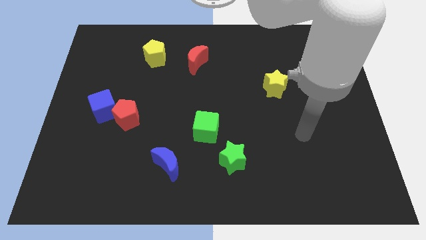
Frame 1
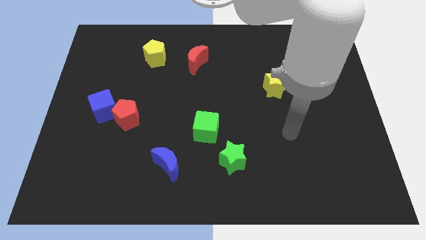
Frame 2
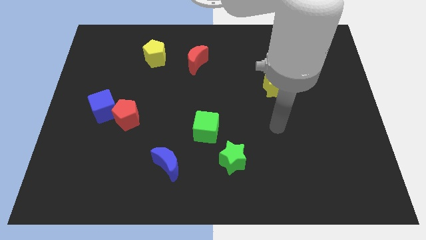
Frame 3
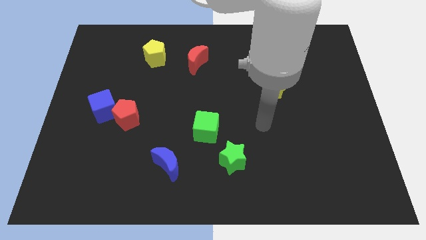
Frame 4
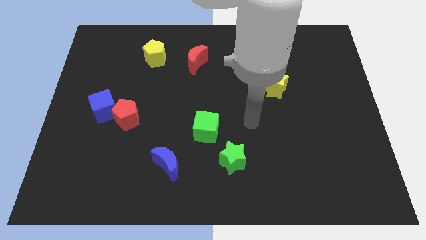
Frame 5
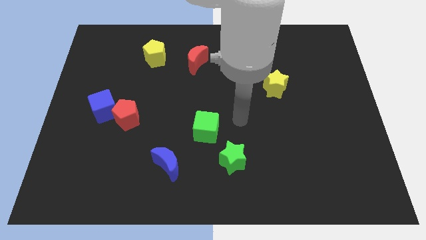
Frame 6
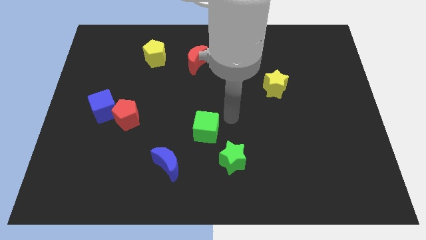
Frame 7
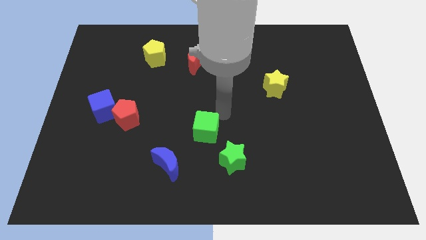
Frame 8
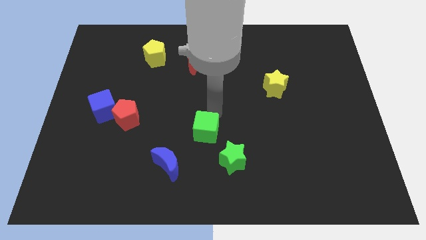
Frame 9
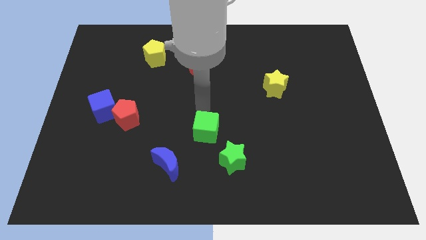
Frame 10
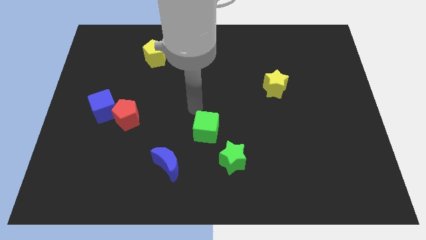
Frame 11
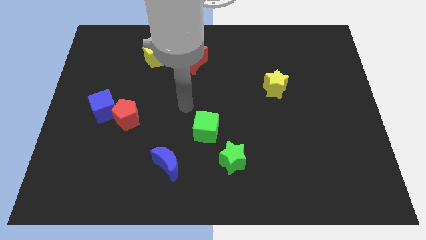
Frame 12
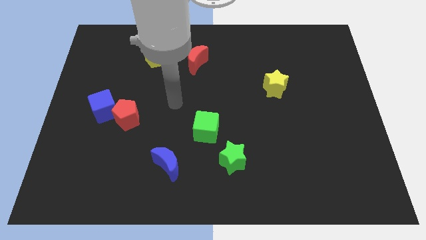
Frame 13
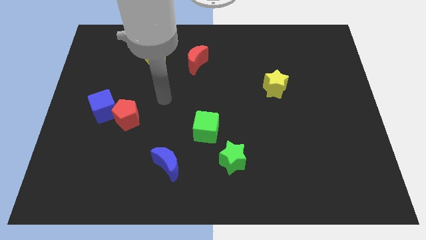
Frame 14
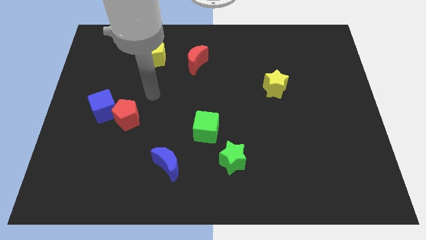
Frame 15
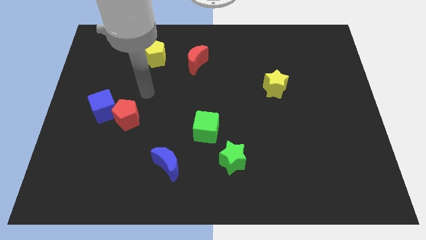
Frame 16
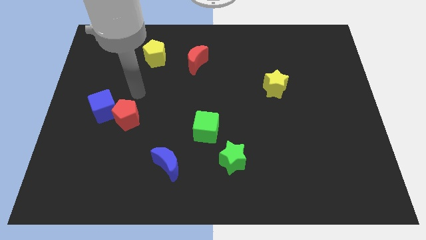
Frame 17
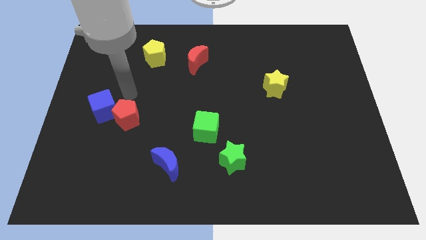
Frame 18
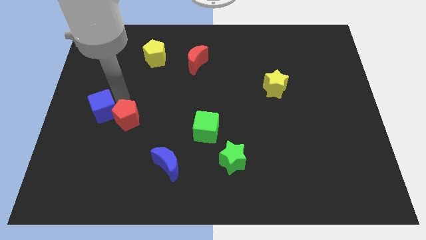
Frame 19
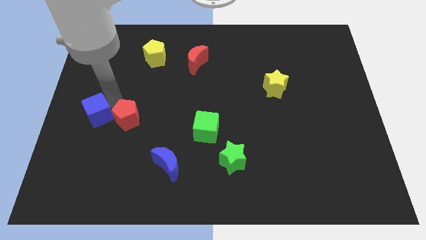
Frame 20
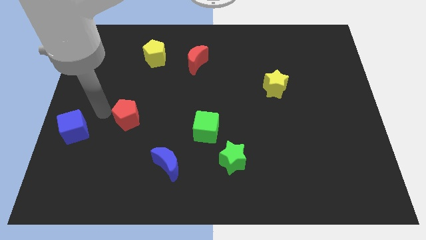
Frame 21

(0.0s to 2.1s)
pull the red pentagon apart from the blue cube

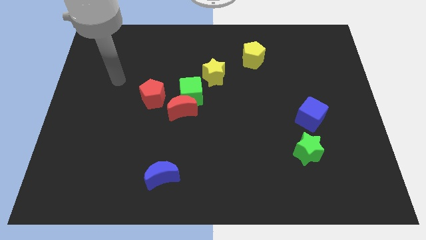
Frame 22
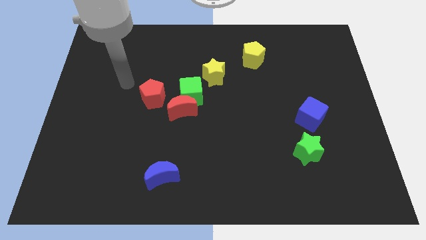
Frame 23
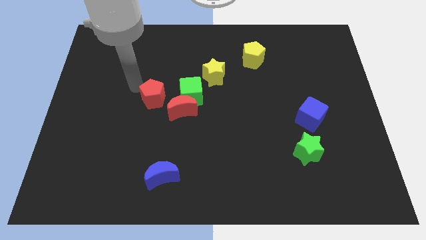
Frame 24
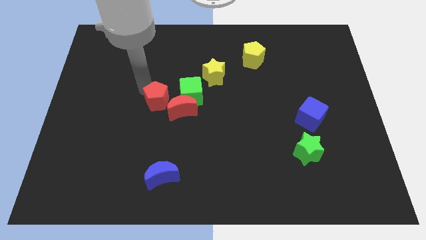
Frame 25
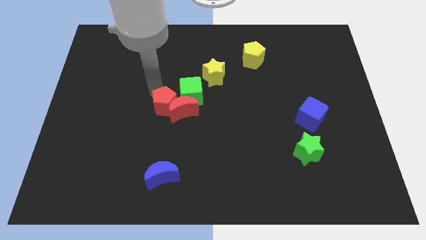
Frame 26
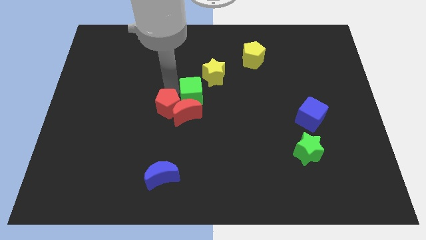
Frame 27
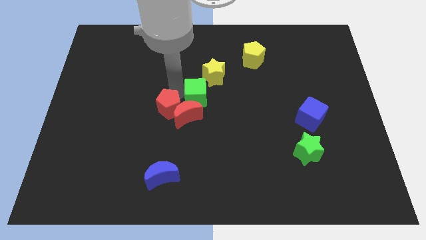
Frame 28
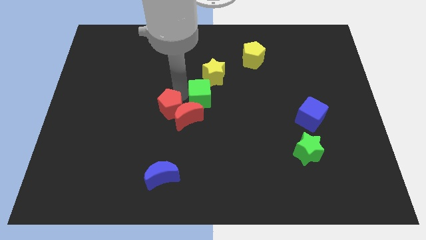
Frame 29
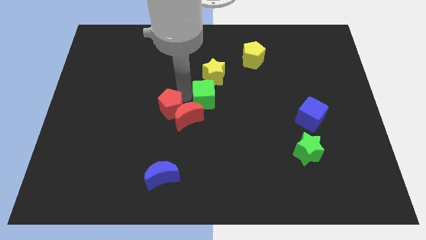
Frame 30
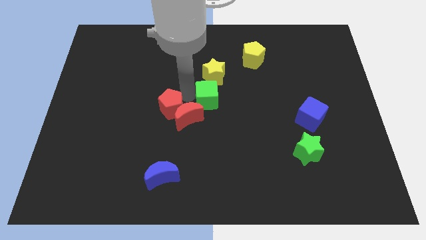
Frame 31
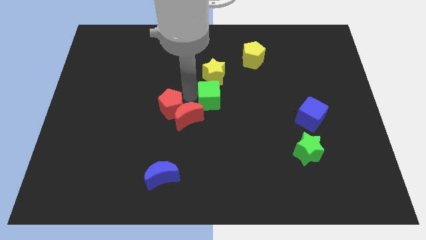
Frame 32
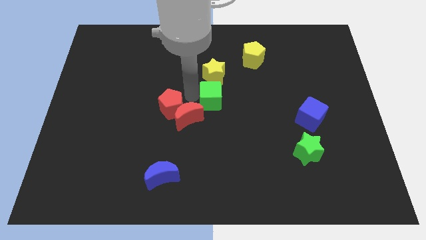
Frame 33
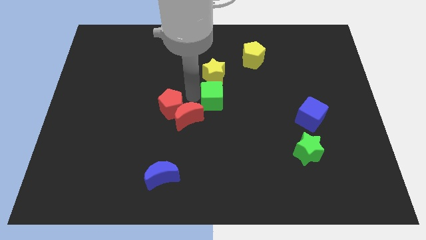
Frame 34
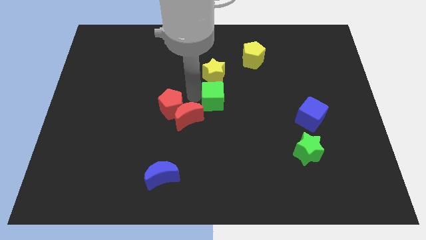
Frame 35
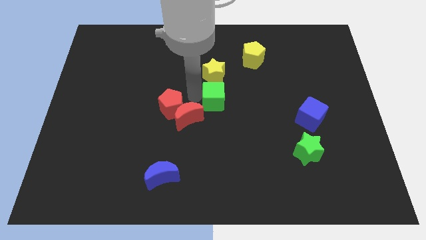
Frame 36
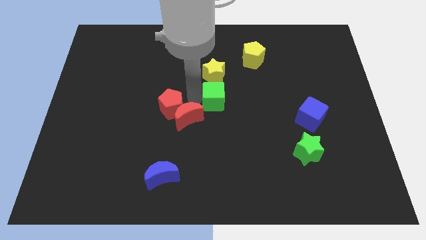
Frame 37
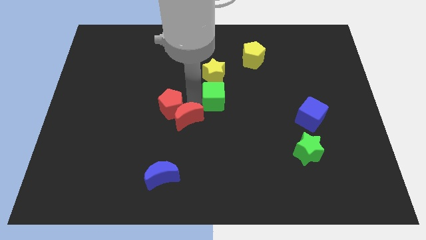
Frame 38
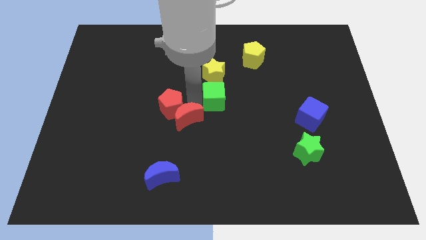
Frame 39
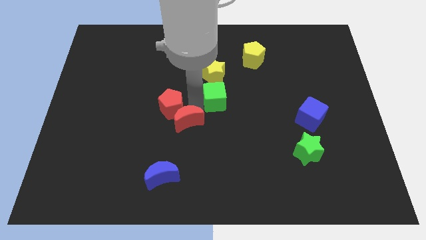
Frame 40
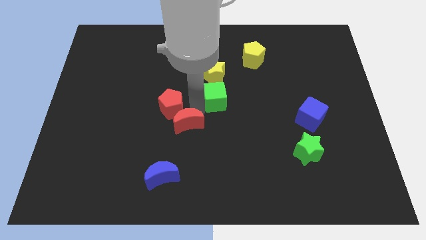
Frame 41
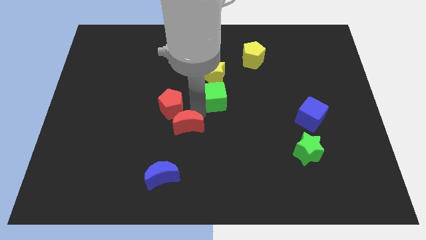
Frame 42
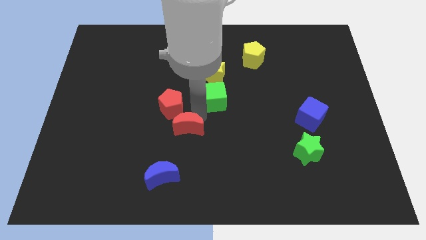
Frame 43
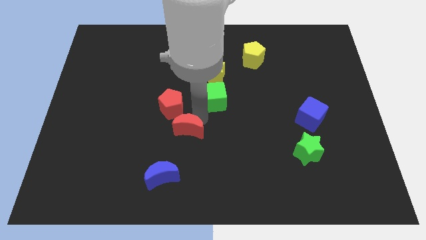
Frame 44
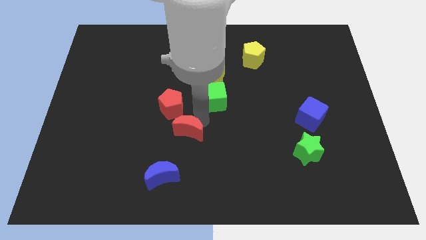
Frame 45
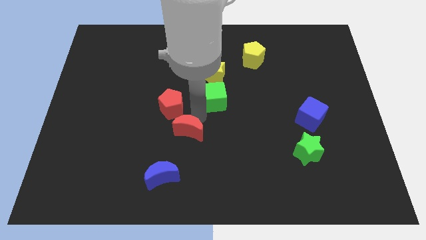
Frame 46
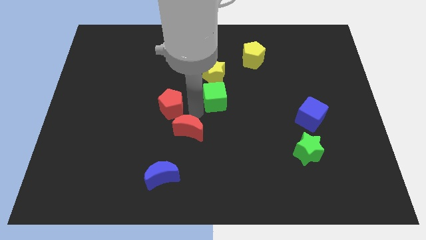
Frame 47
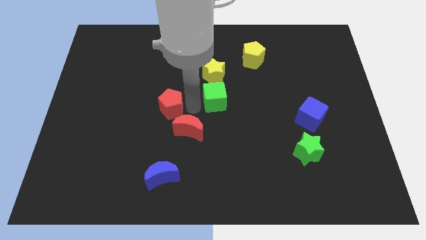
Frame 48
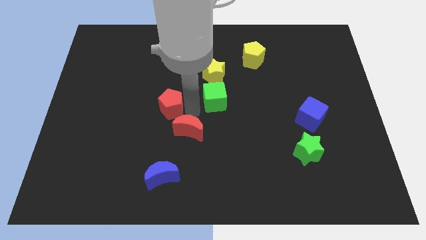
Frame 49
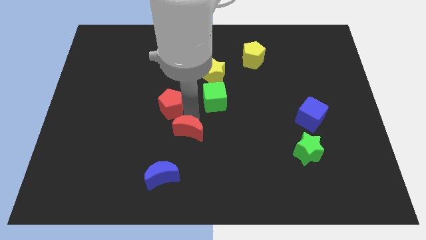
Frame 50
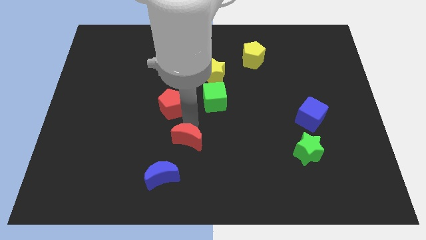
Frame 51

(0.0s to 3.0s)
move the red moon away from the green cube and red pentagon

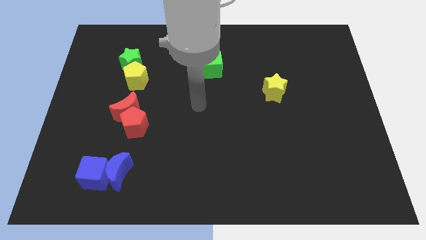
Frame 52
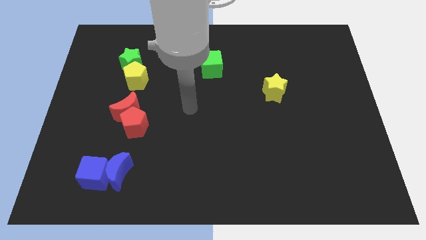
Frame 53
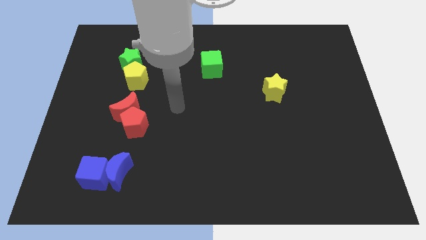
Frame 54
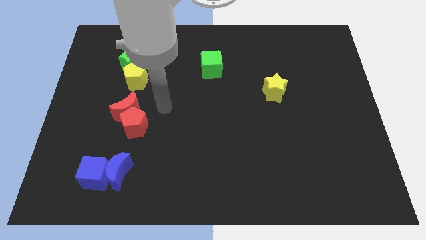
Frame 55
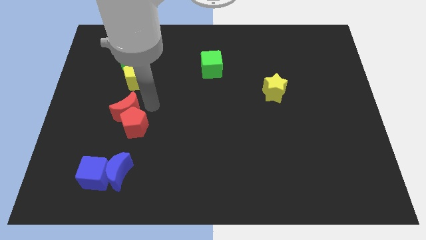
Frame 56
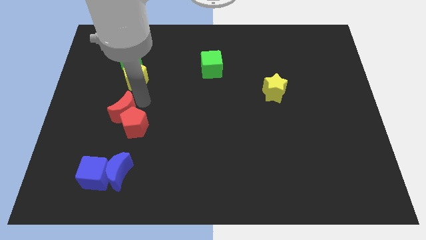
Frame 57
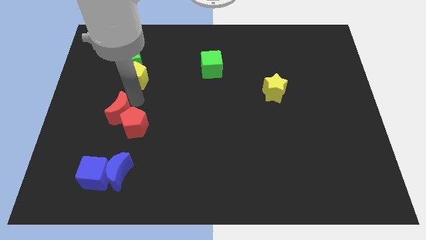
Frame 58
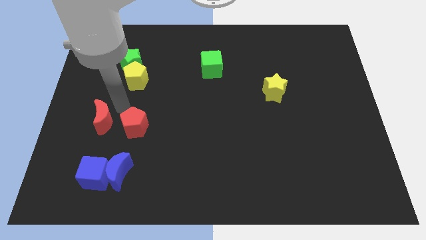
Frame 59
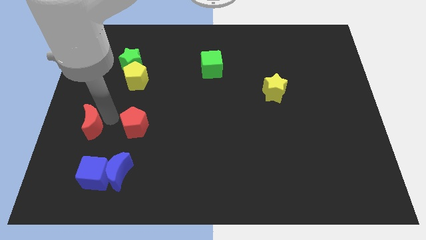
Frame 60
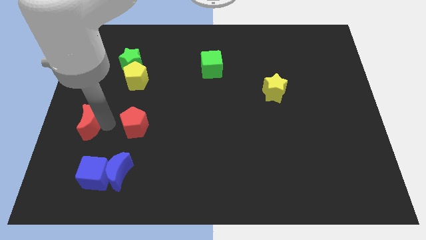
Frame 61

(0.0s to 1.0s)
separate the red pentagon from the red moon

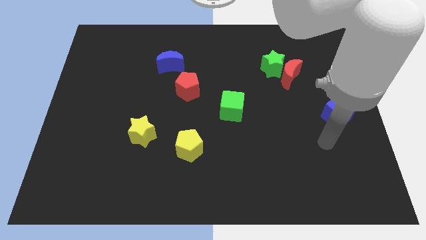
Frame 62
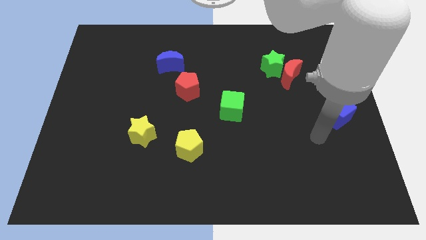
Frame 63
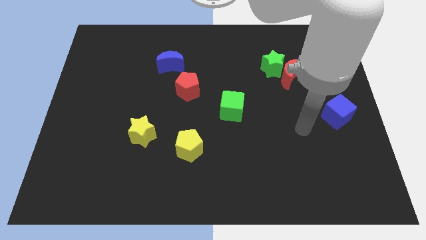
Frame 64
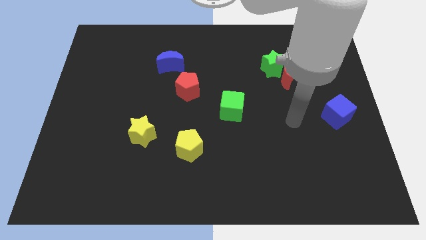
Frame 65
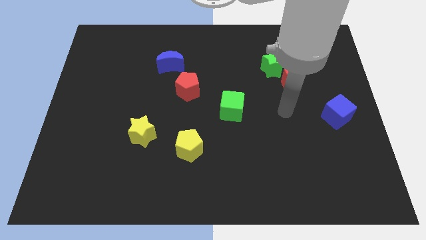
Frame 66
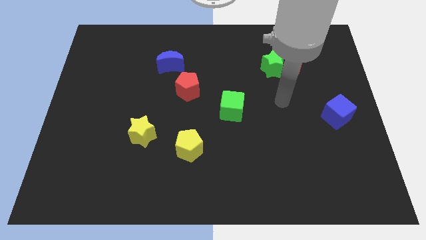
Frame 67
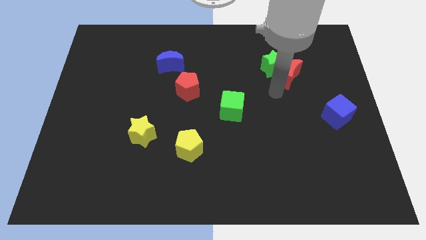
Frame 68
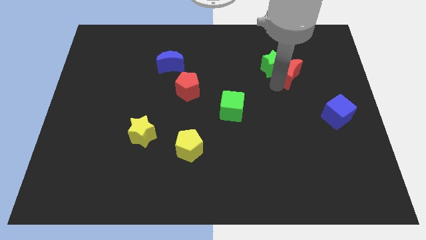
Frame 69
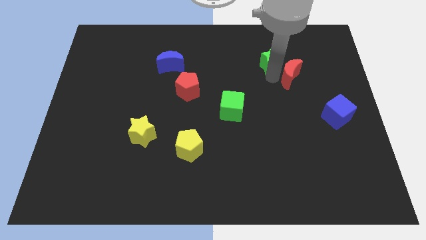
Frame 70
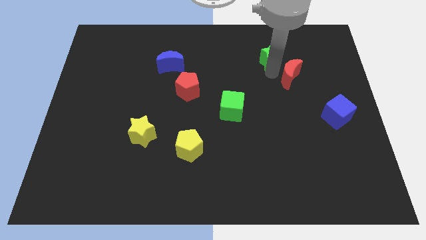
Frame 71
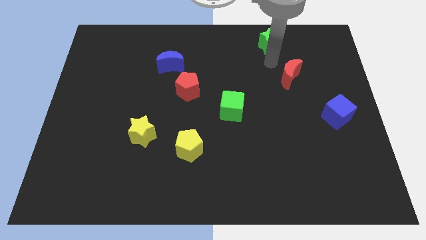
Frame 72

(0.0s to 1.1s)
separate the red moon from the green star

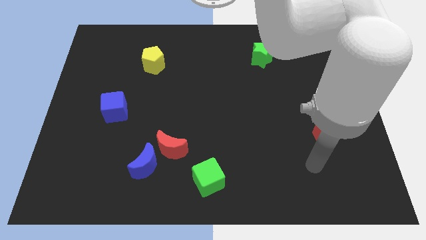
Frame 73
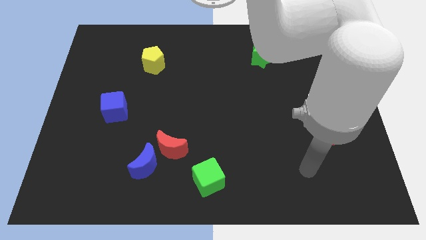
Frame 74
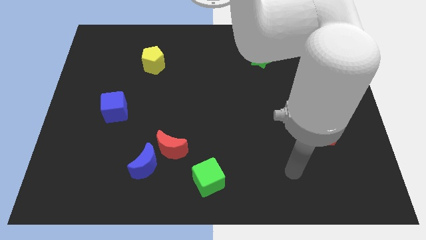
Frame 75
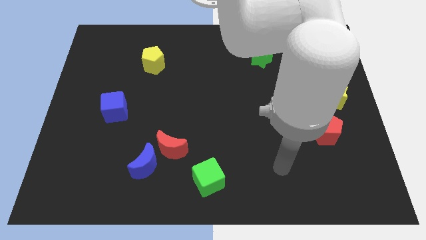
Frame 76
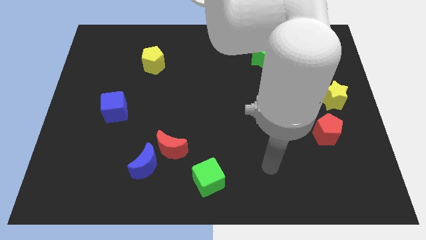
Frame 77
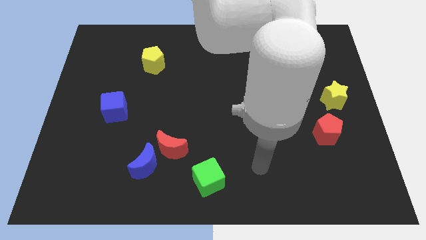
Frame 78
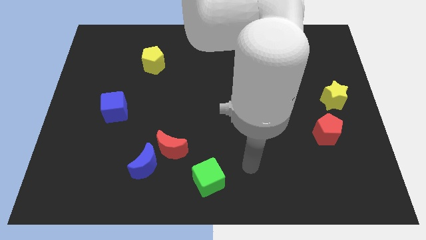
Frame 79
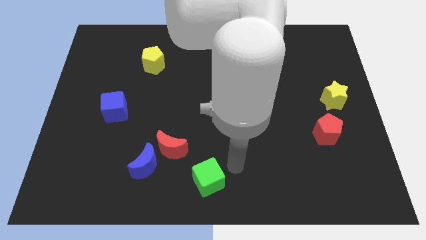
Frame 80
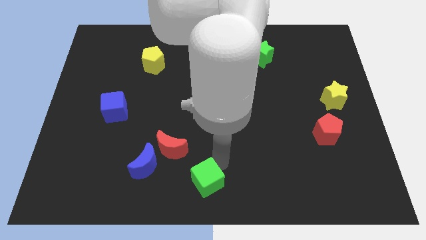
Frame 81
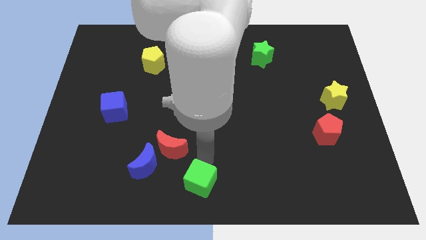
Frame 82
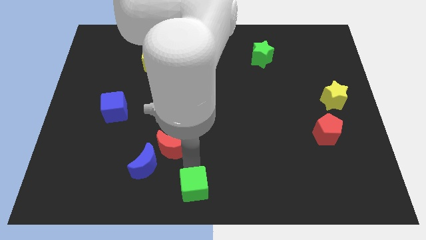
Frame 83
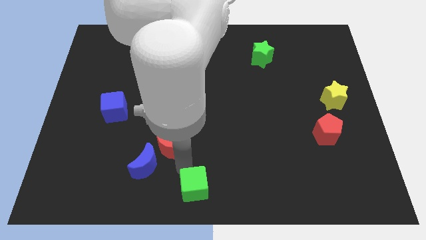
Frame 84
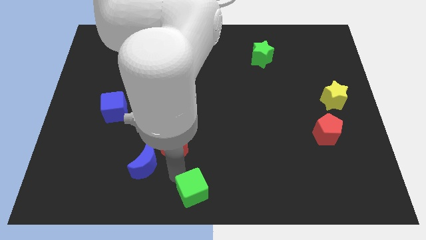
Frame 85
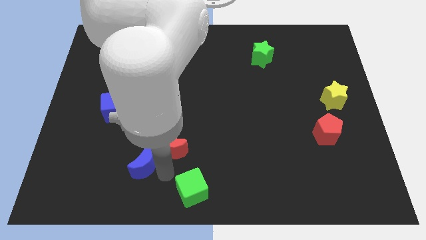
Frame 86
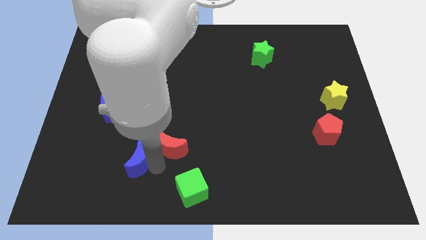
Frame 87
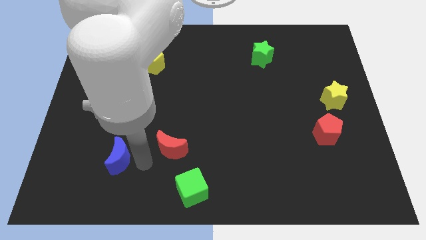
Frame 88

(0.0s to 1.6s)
move the red moon away from the blue moon

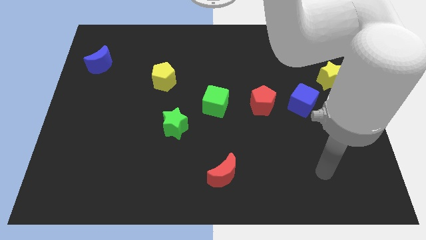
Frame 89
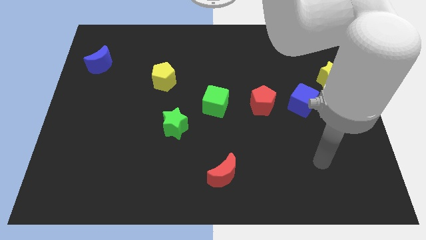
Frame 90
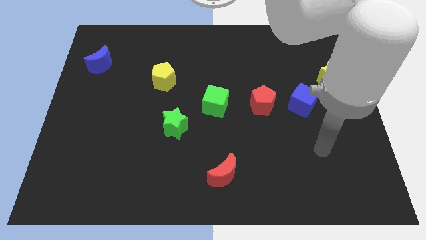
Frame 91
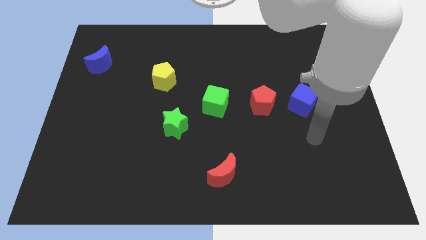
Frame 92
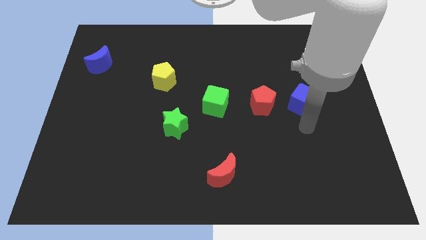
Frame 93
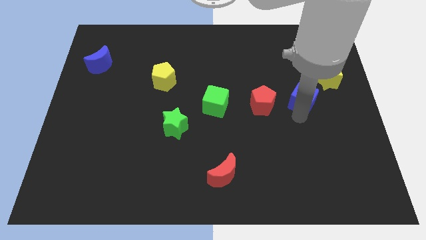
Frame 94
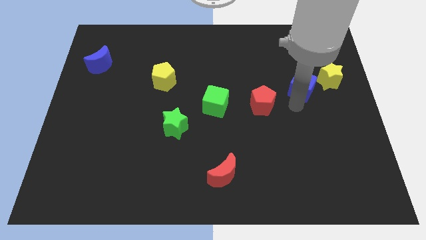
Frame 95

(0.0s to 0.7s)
separate the red pentagon from the blue cube
